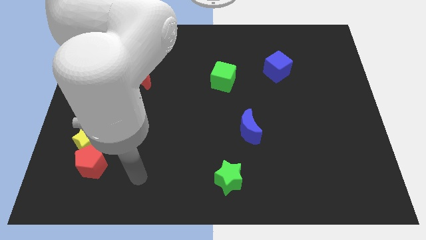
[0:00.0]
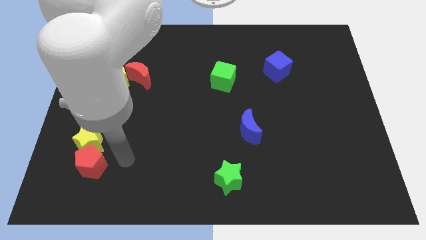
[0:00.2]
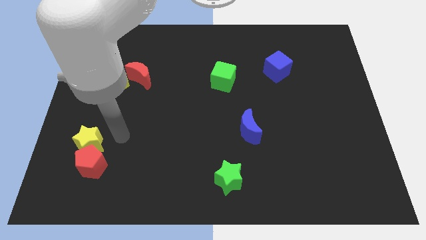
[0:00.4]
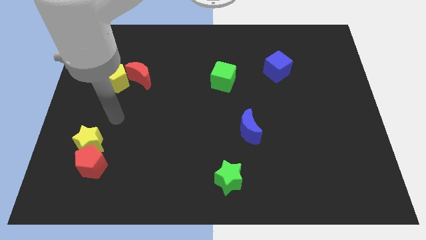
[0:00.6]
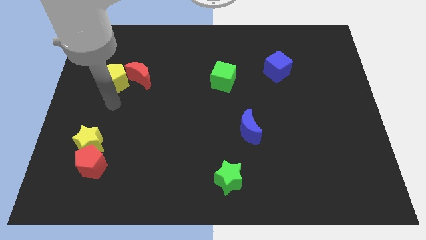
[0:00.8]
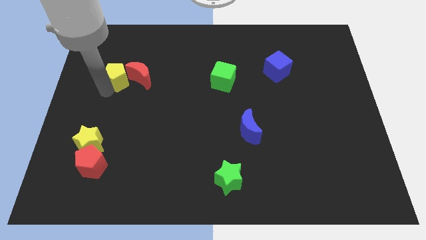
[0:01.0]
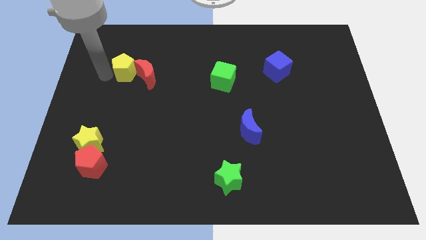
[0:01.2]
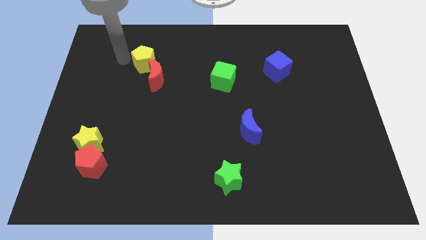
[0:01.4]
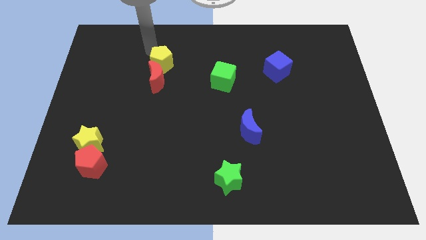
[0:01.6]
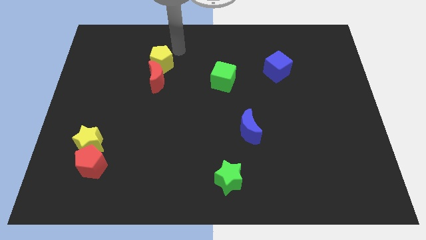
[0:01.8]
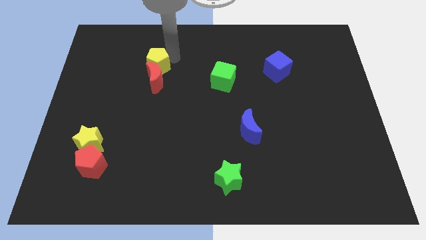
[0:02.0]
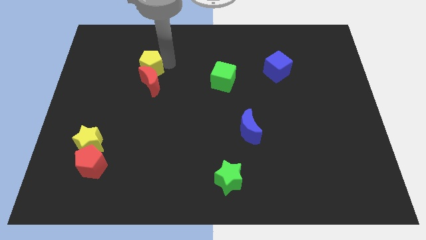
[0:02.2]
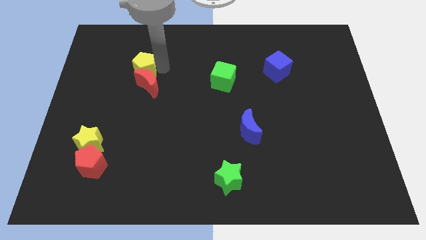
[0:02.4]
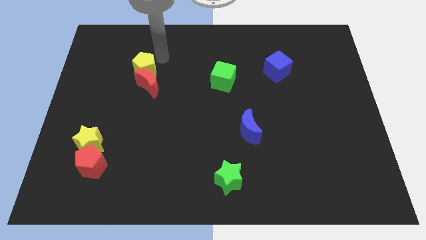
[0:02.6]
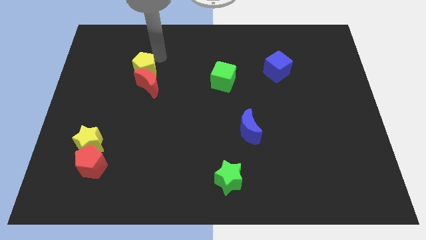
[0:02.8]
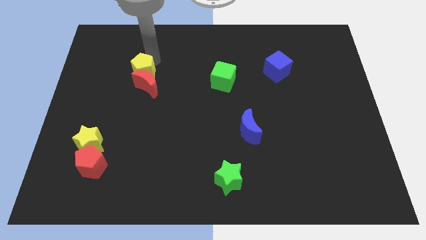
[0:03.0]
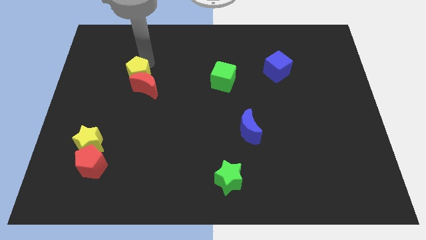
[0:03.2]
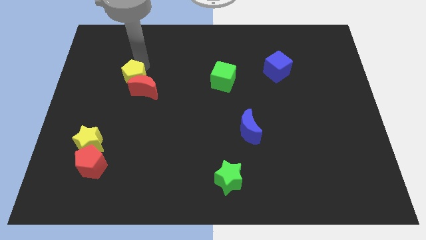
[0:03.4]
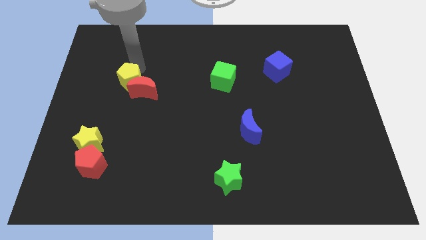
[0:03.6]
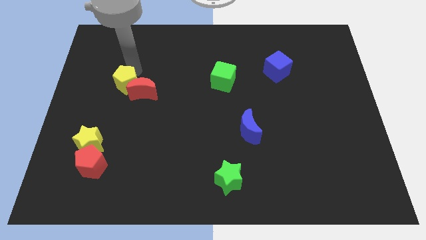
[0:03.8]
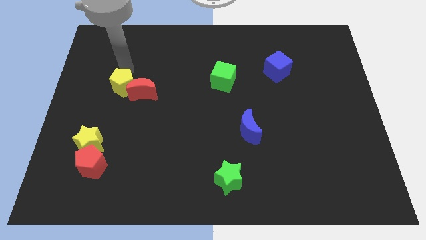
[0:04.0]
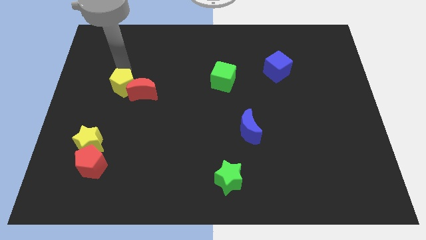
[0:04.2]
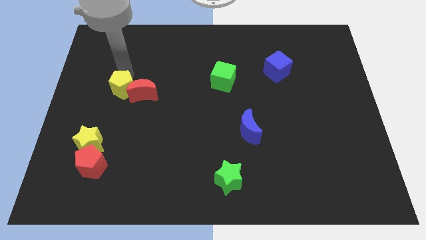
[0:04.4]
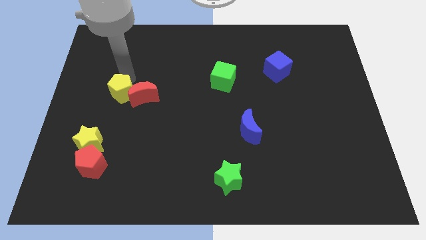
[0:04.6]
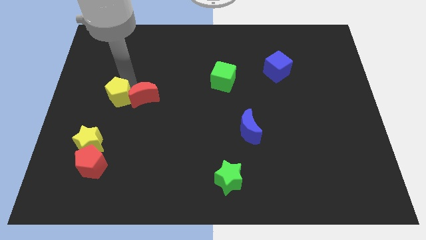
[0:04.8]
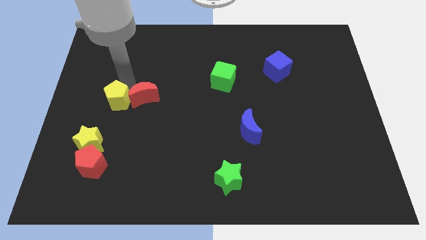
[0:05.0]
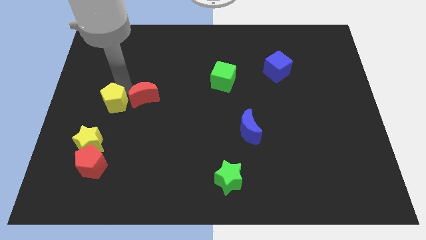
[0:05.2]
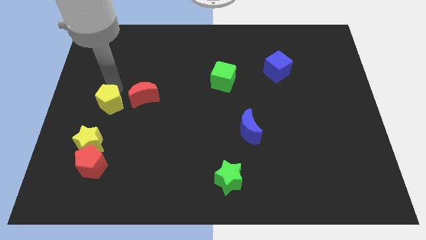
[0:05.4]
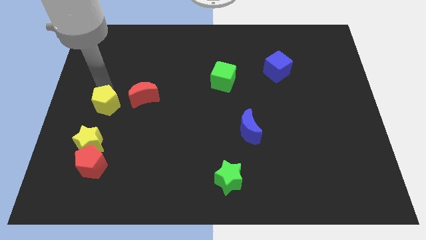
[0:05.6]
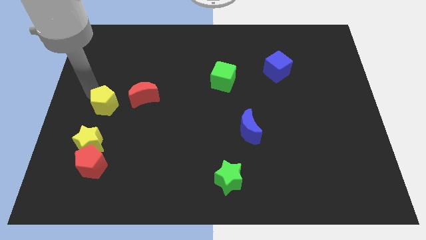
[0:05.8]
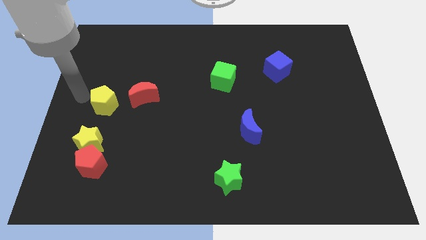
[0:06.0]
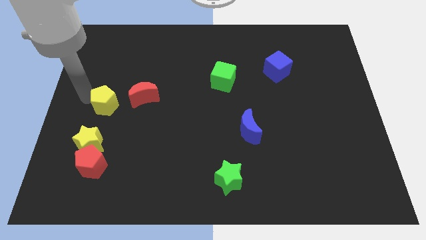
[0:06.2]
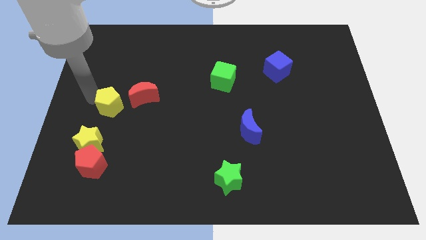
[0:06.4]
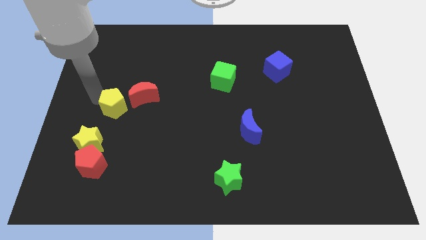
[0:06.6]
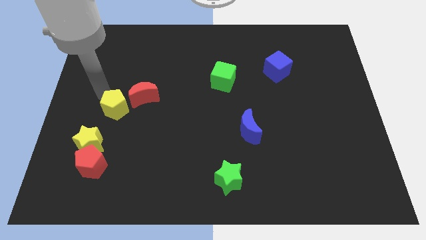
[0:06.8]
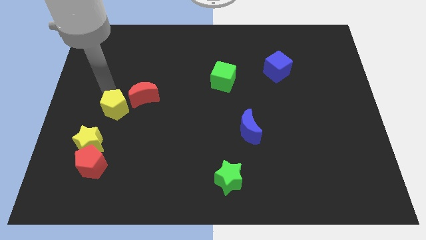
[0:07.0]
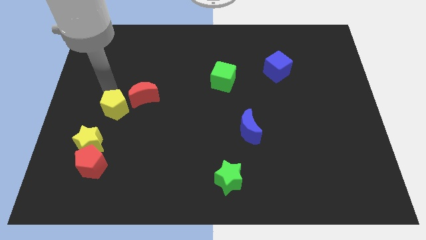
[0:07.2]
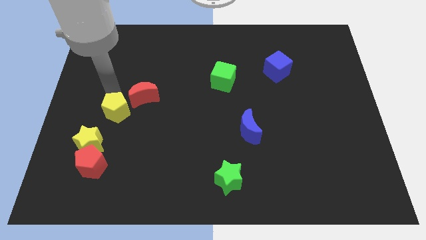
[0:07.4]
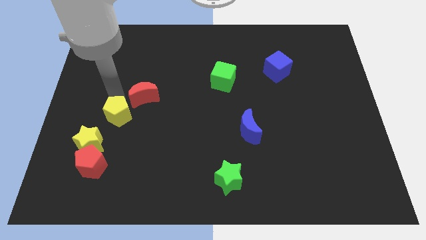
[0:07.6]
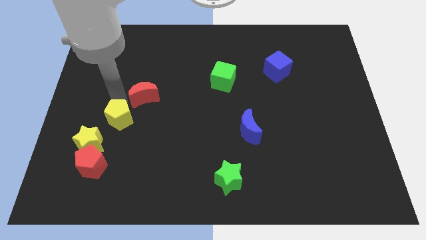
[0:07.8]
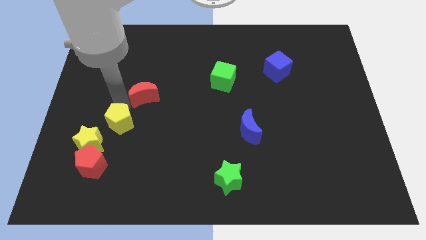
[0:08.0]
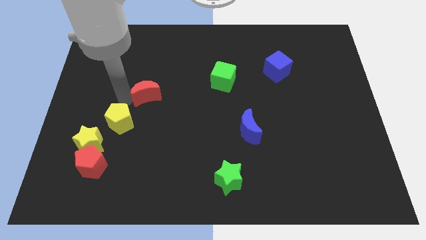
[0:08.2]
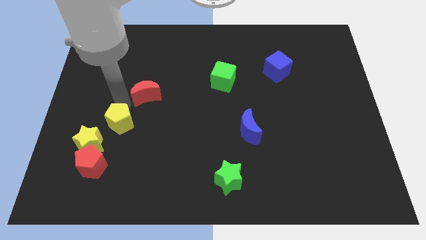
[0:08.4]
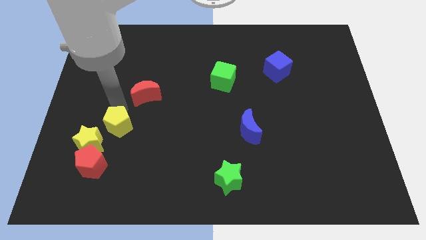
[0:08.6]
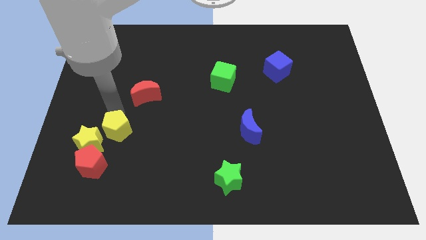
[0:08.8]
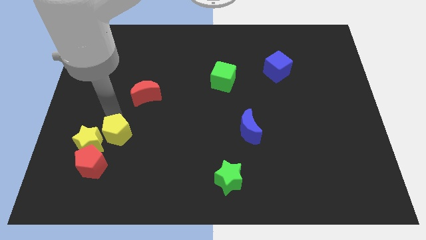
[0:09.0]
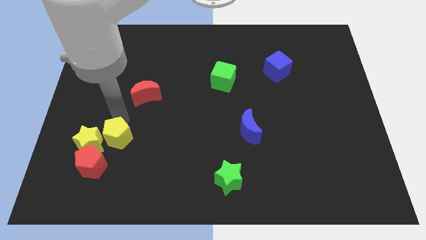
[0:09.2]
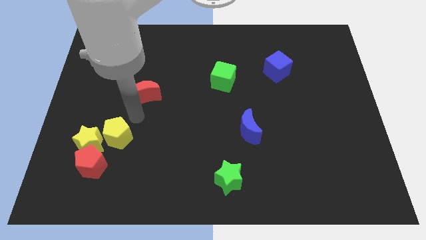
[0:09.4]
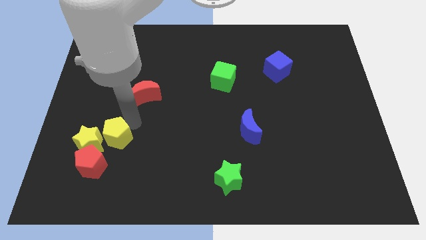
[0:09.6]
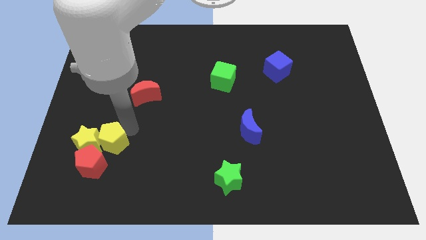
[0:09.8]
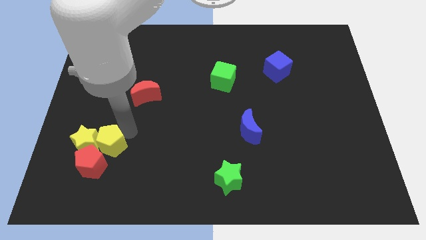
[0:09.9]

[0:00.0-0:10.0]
put the yellow pentagon to the red pentagon

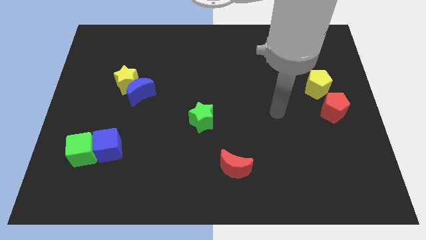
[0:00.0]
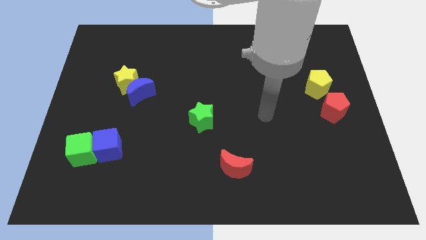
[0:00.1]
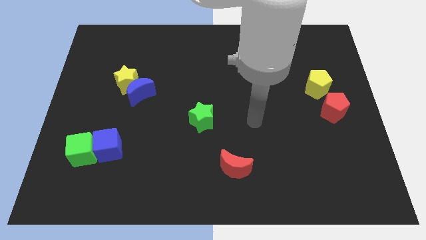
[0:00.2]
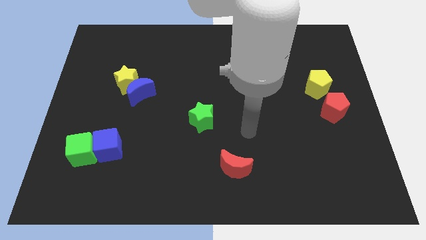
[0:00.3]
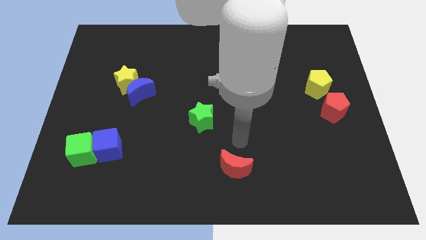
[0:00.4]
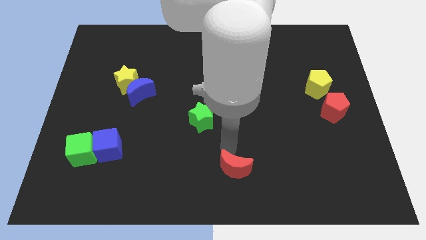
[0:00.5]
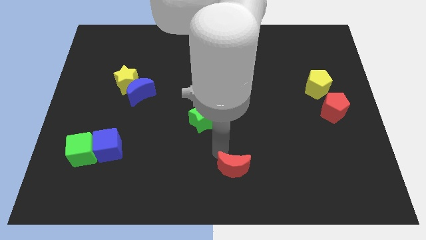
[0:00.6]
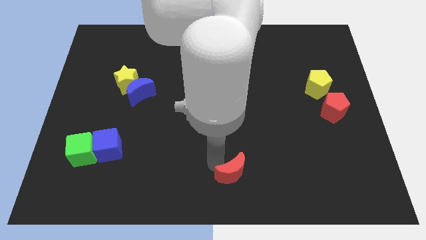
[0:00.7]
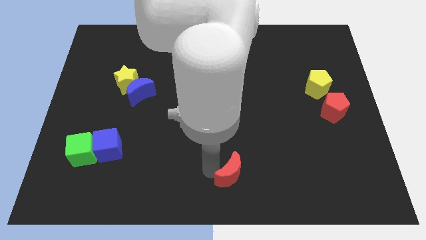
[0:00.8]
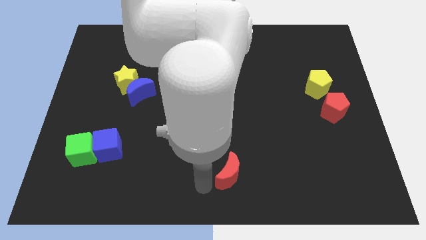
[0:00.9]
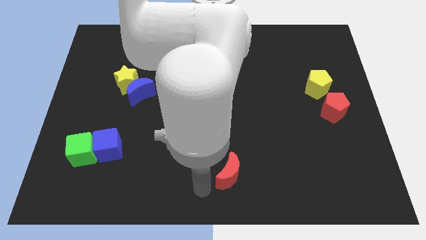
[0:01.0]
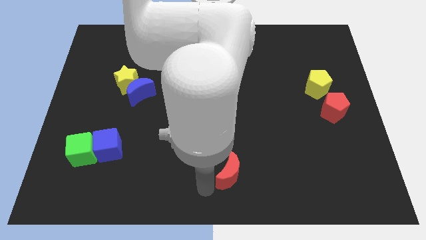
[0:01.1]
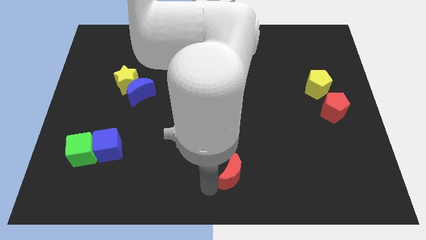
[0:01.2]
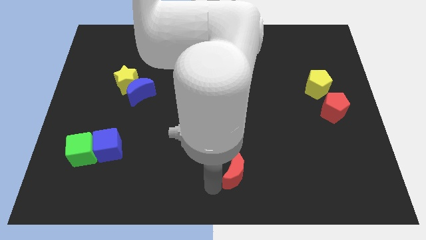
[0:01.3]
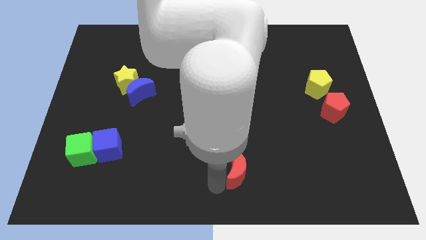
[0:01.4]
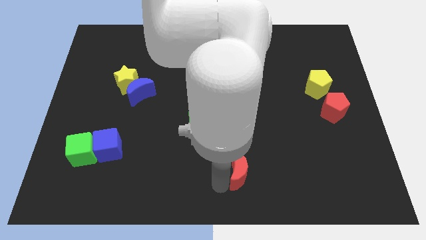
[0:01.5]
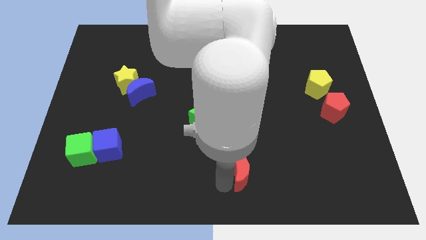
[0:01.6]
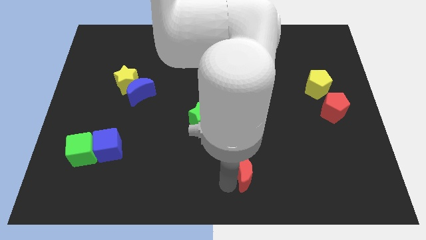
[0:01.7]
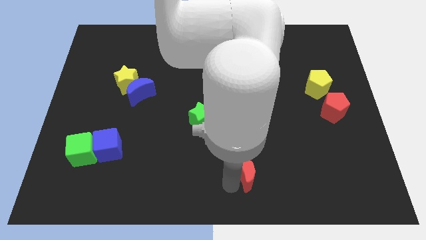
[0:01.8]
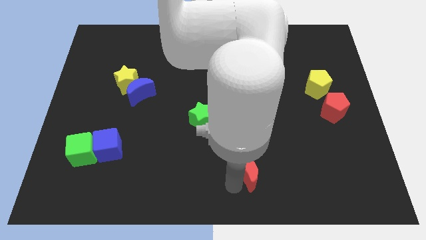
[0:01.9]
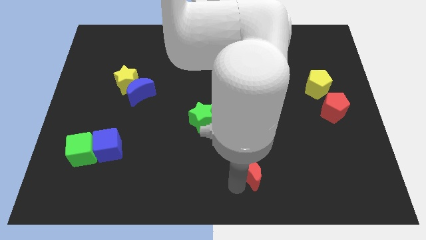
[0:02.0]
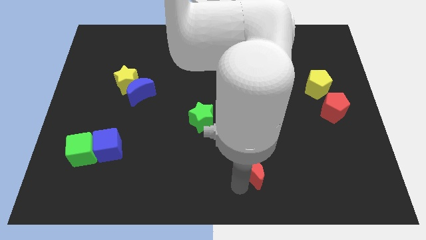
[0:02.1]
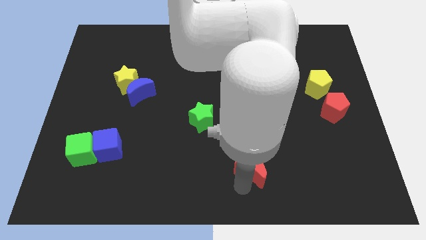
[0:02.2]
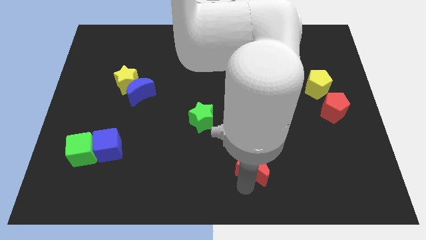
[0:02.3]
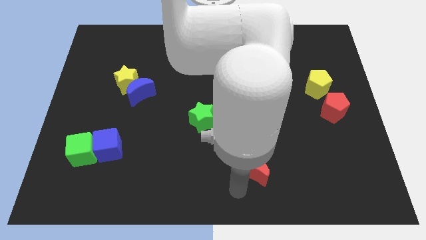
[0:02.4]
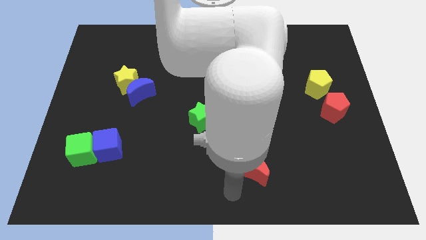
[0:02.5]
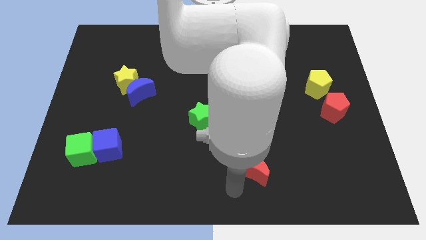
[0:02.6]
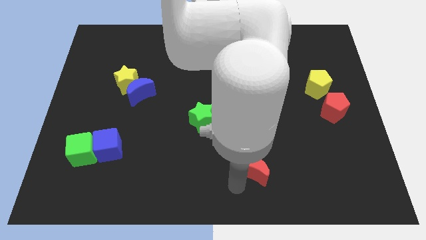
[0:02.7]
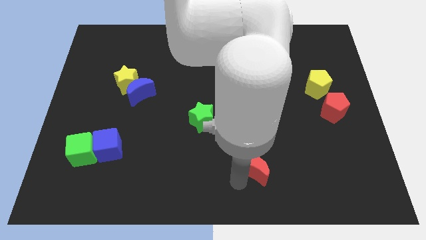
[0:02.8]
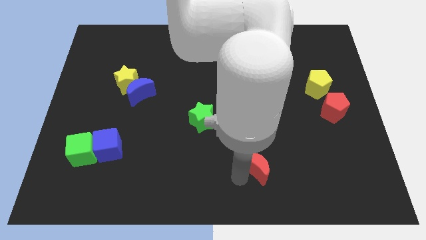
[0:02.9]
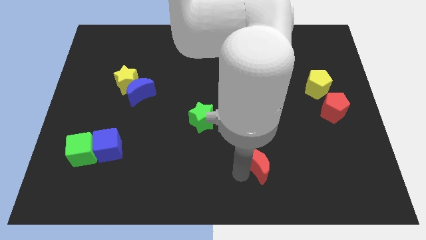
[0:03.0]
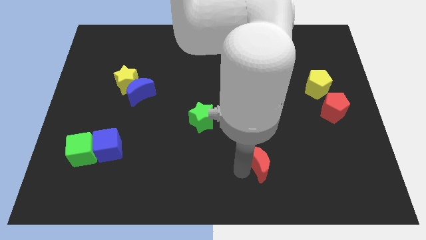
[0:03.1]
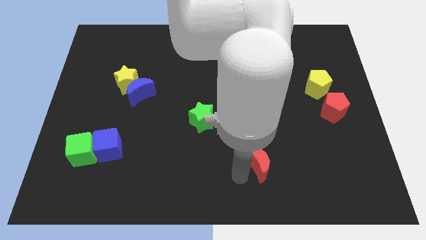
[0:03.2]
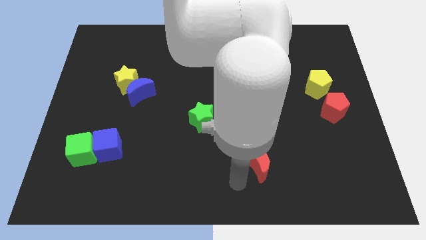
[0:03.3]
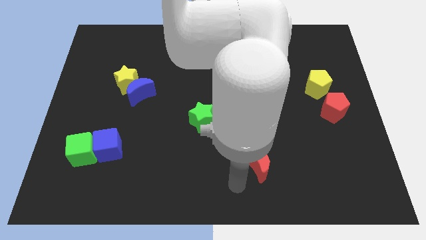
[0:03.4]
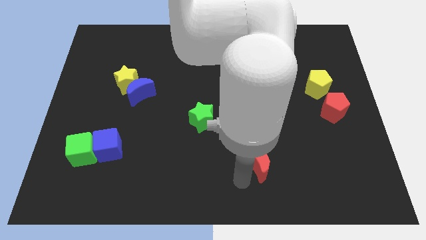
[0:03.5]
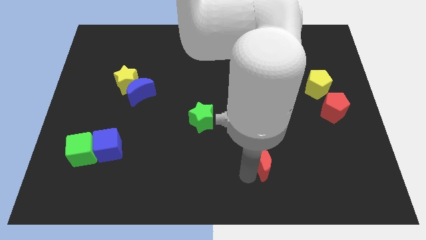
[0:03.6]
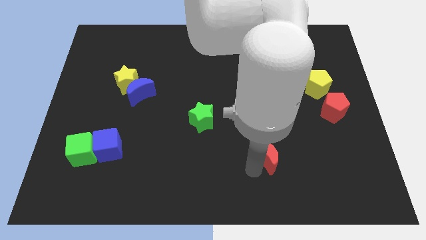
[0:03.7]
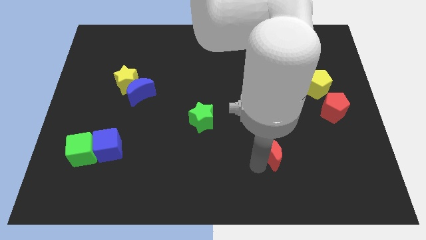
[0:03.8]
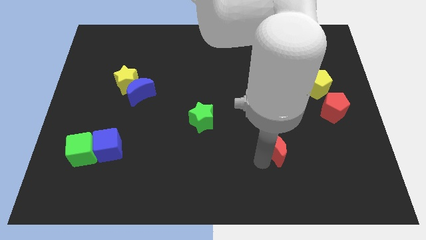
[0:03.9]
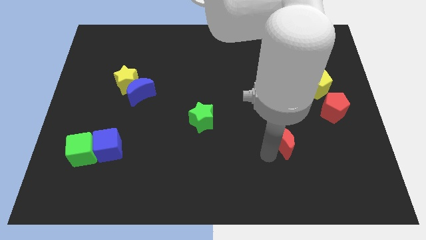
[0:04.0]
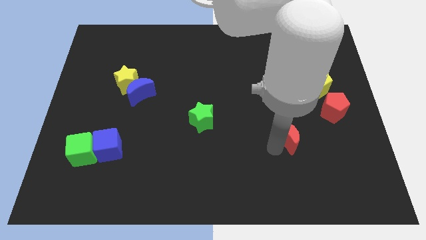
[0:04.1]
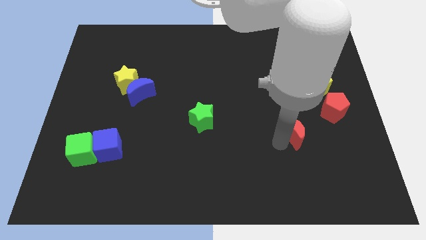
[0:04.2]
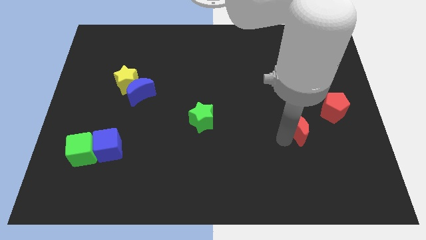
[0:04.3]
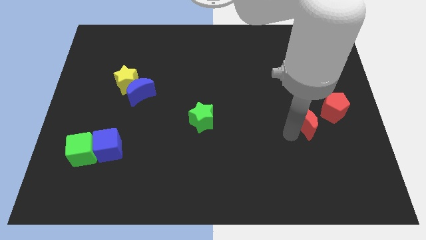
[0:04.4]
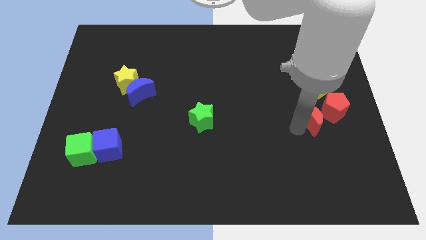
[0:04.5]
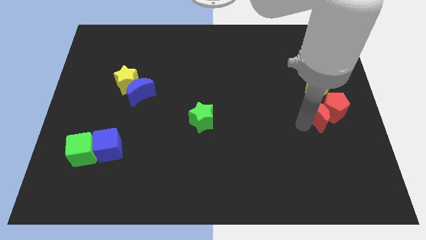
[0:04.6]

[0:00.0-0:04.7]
put the red moon close to the red pentagon
